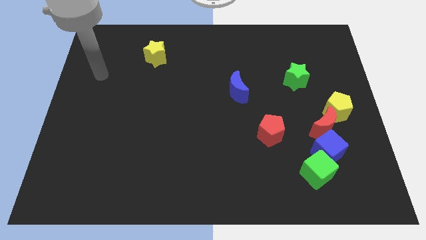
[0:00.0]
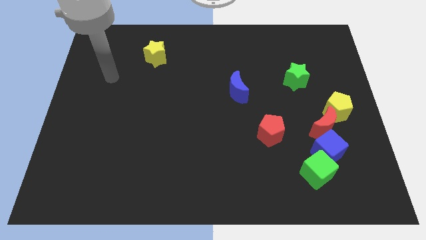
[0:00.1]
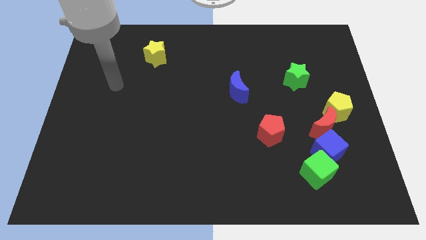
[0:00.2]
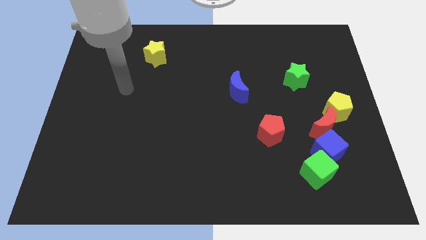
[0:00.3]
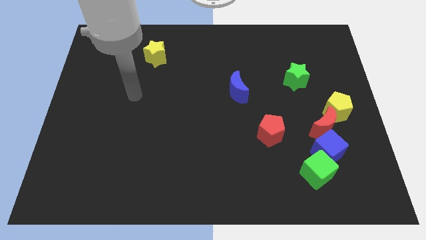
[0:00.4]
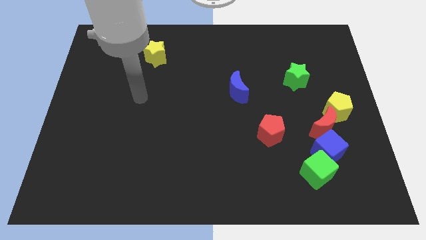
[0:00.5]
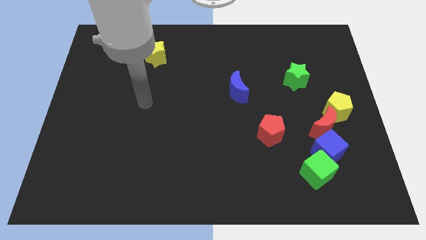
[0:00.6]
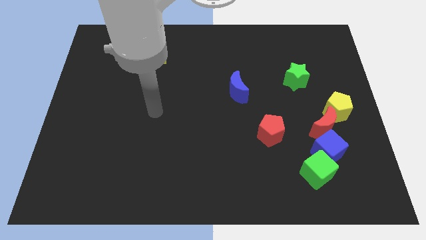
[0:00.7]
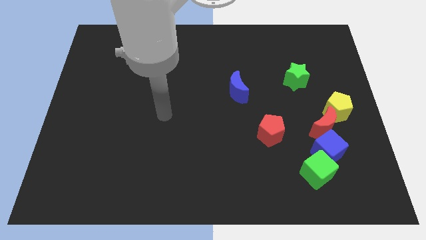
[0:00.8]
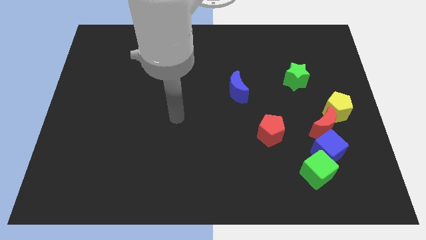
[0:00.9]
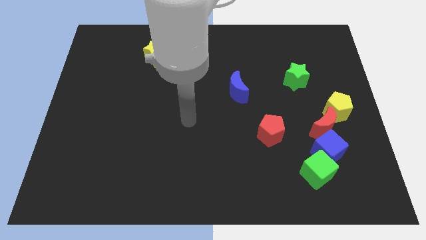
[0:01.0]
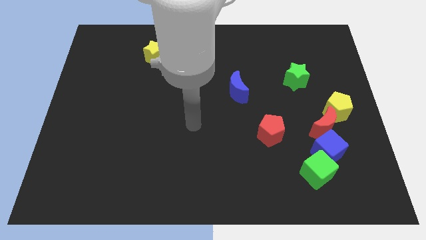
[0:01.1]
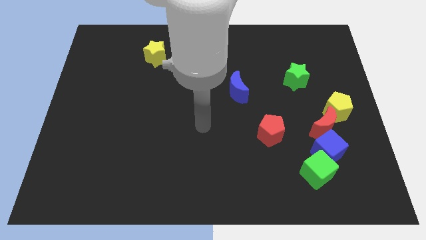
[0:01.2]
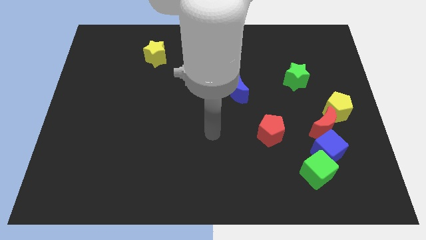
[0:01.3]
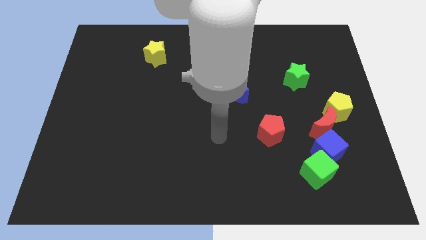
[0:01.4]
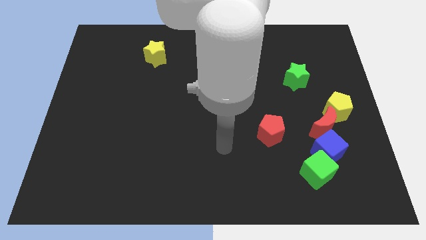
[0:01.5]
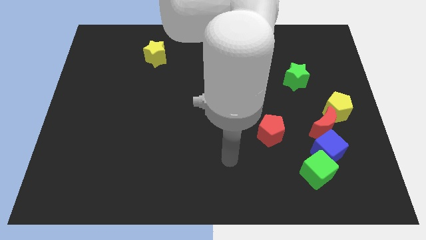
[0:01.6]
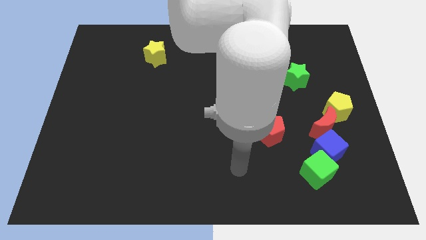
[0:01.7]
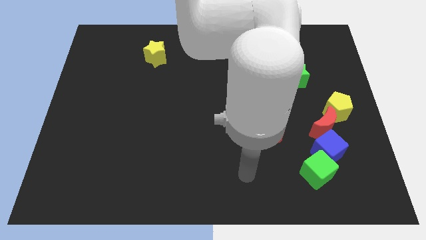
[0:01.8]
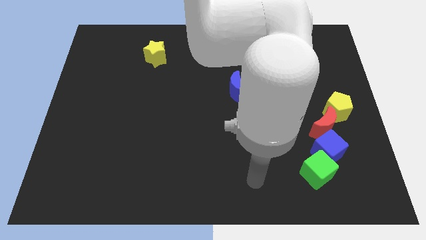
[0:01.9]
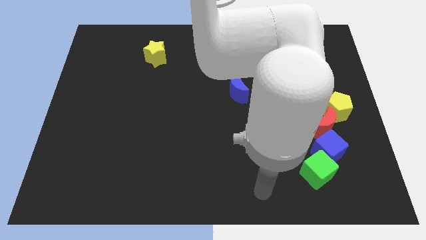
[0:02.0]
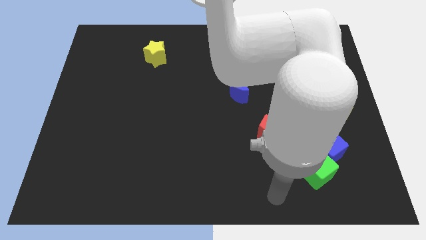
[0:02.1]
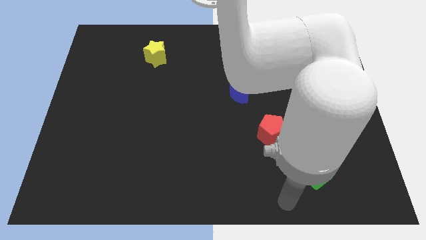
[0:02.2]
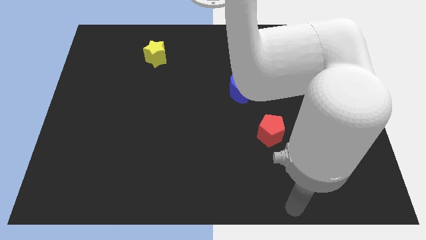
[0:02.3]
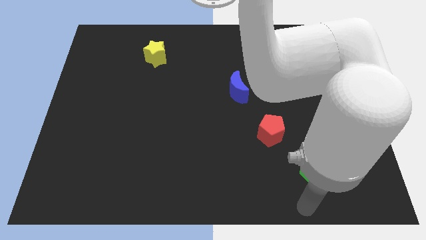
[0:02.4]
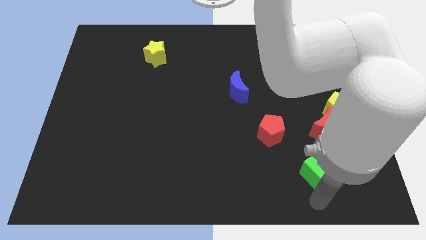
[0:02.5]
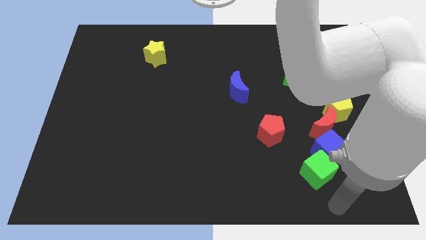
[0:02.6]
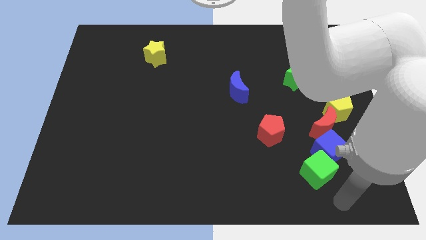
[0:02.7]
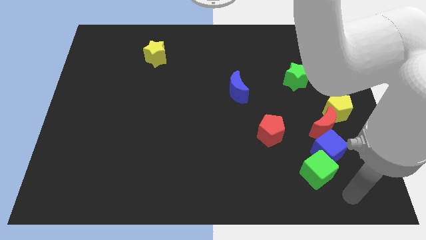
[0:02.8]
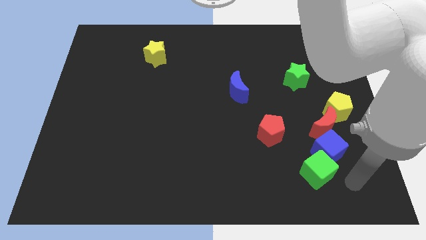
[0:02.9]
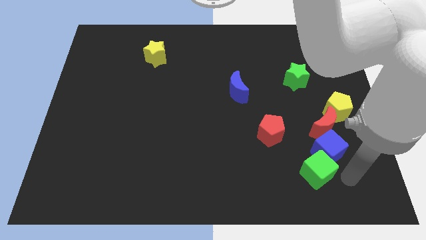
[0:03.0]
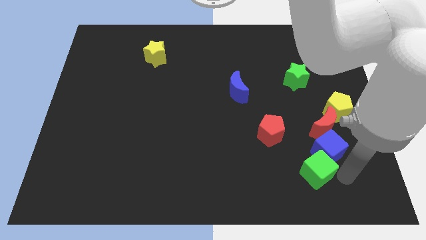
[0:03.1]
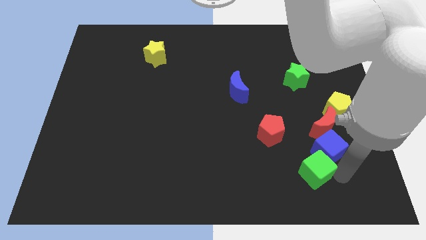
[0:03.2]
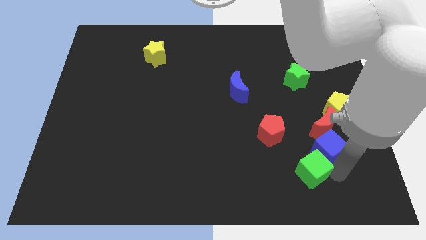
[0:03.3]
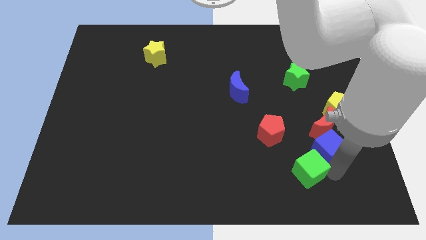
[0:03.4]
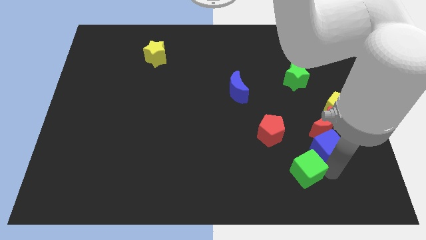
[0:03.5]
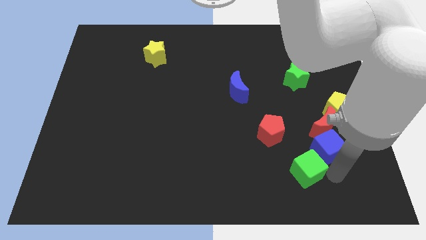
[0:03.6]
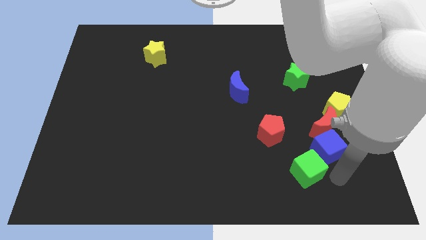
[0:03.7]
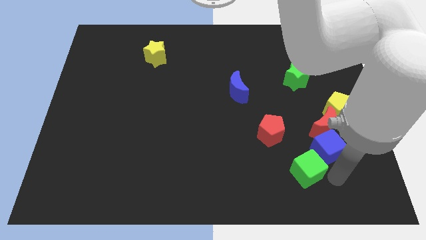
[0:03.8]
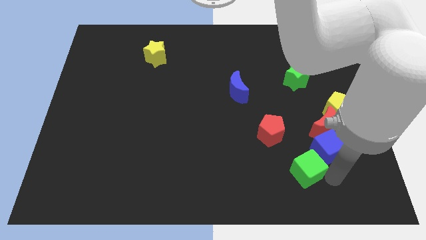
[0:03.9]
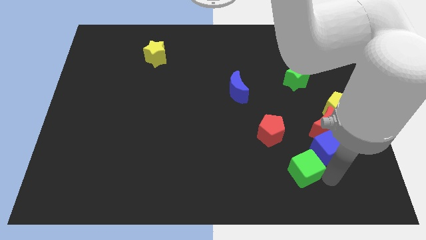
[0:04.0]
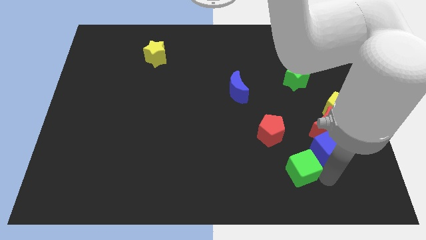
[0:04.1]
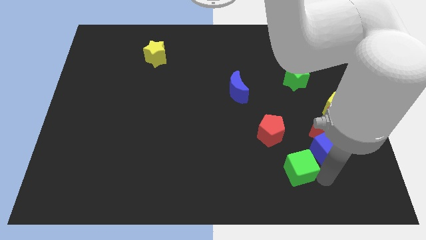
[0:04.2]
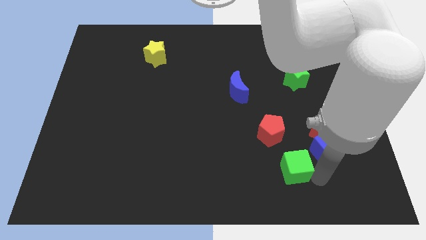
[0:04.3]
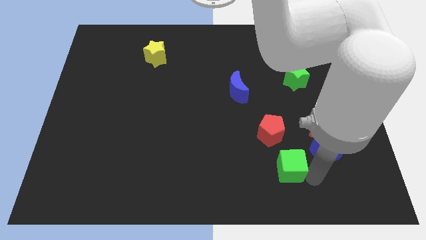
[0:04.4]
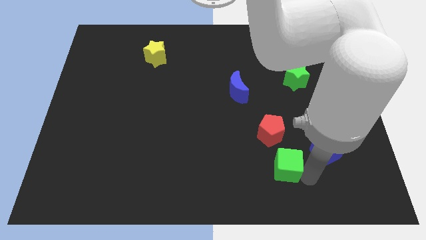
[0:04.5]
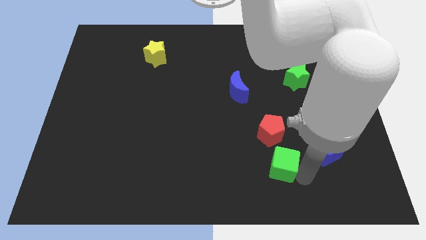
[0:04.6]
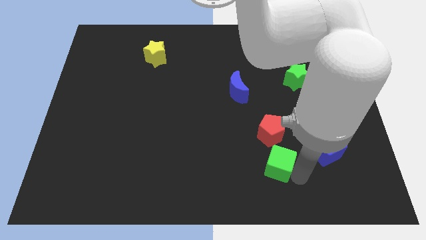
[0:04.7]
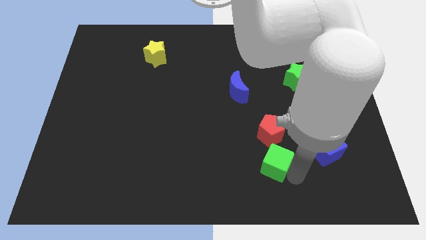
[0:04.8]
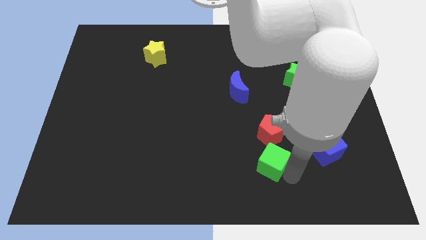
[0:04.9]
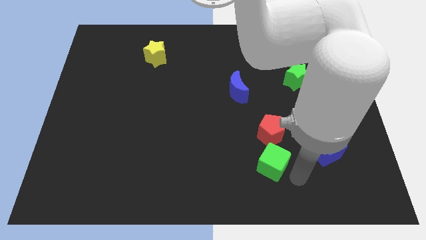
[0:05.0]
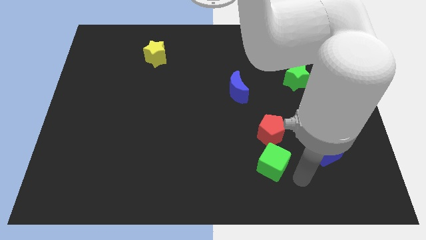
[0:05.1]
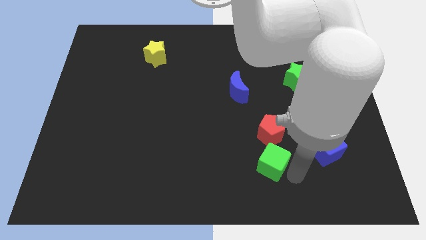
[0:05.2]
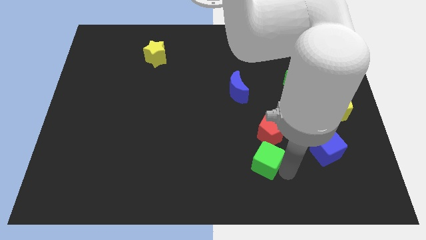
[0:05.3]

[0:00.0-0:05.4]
put the green cube to the bottom left of the red pentagon

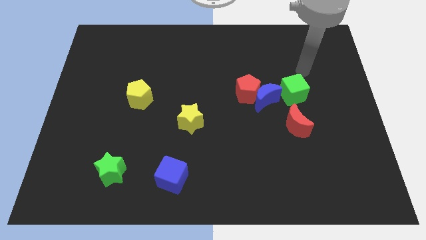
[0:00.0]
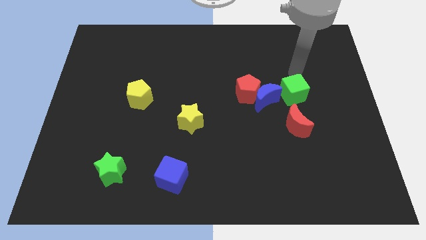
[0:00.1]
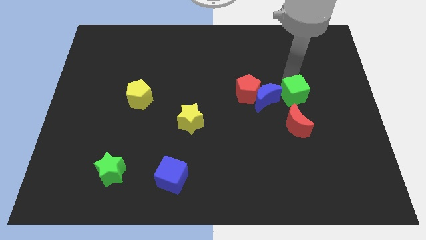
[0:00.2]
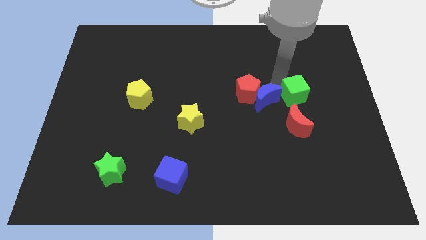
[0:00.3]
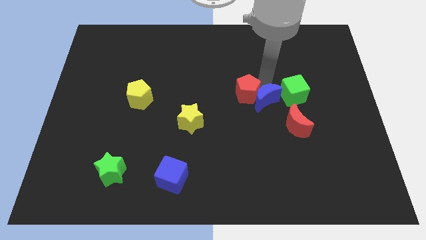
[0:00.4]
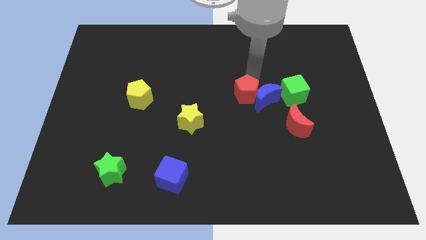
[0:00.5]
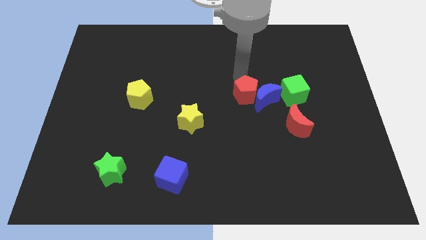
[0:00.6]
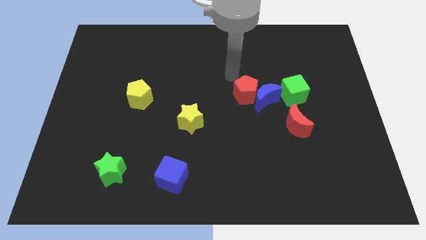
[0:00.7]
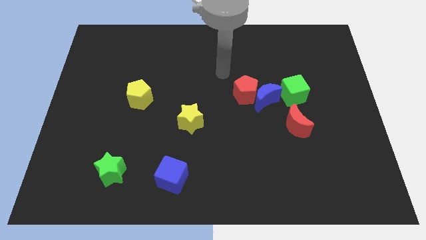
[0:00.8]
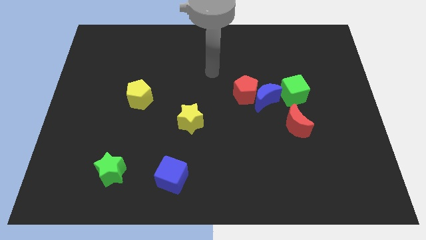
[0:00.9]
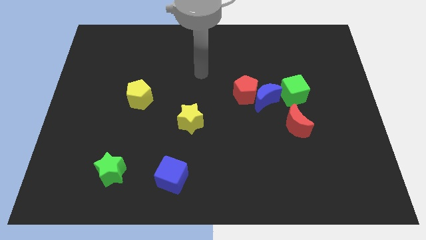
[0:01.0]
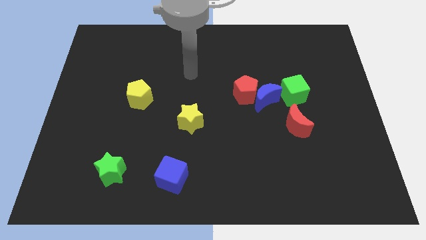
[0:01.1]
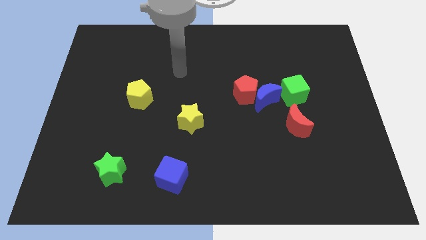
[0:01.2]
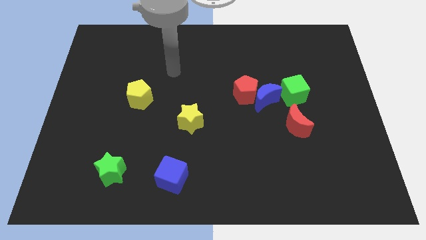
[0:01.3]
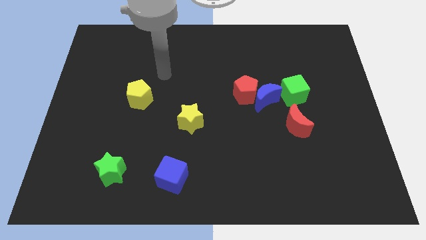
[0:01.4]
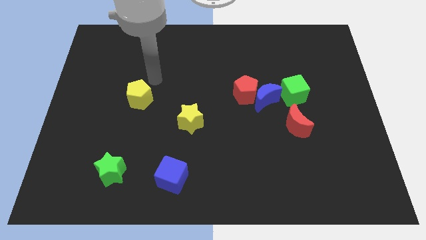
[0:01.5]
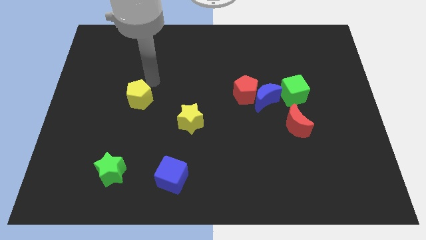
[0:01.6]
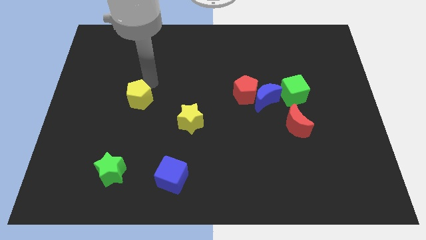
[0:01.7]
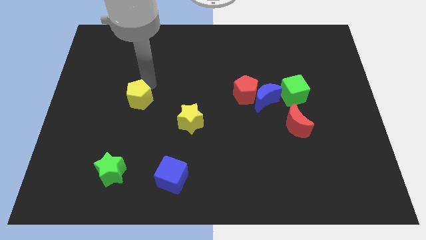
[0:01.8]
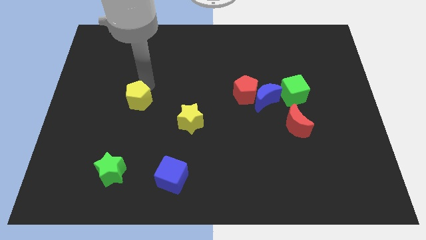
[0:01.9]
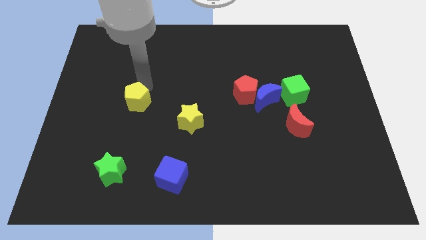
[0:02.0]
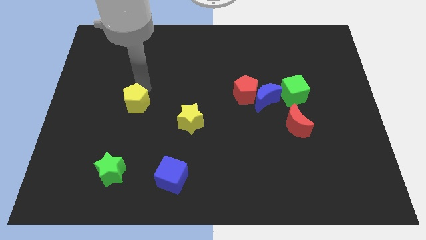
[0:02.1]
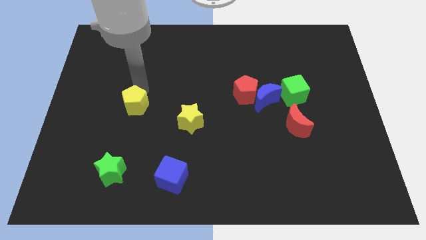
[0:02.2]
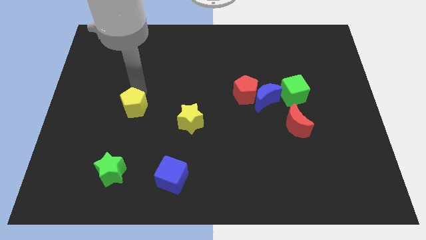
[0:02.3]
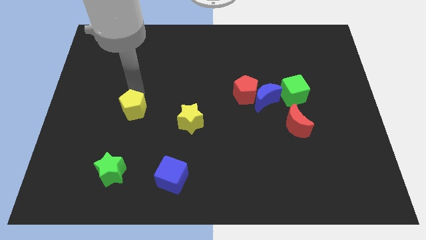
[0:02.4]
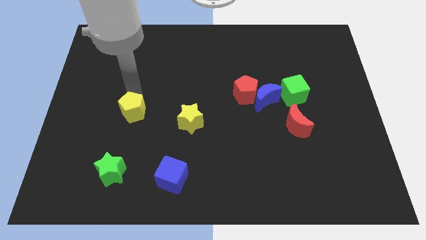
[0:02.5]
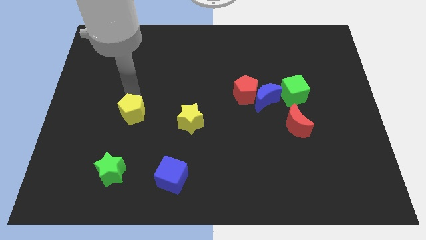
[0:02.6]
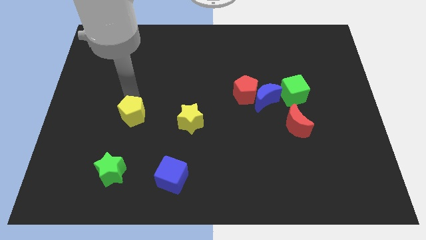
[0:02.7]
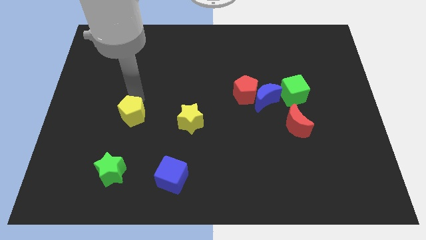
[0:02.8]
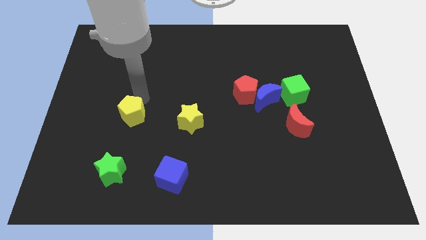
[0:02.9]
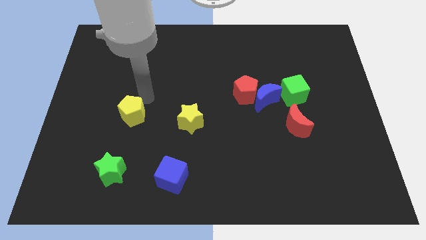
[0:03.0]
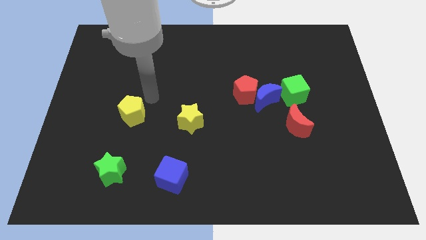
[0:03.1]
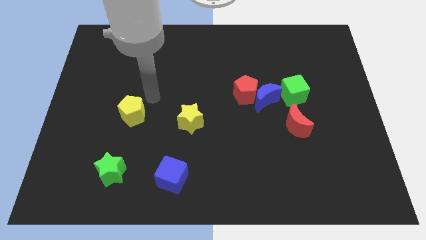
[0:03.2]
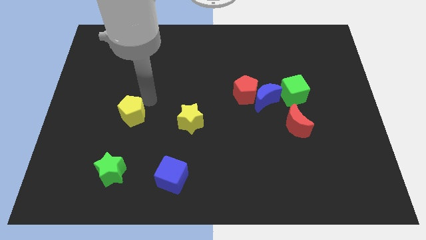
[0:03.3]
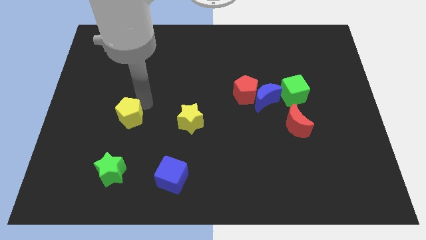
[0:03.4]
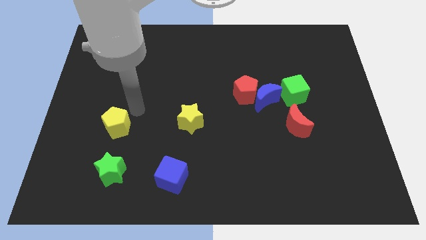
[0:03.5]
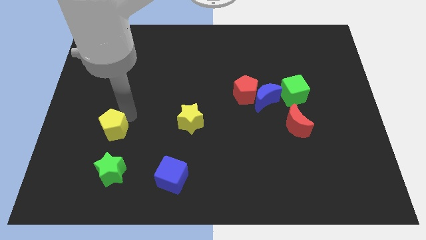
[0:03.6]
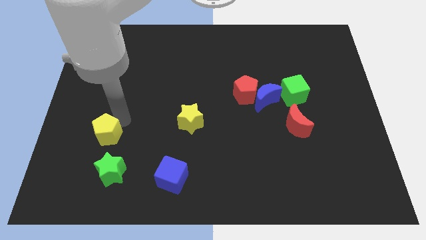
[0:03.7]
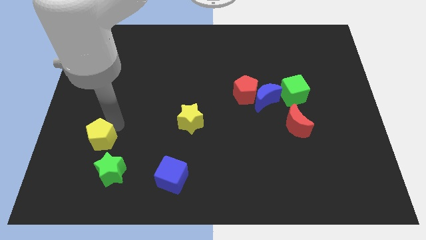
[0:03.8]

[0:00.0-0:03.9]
slide the yellow pentagon diagonally up and to the left of the green star
